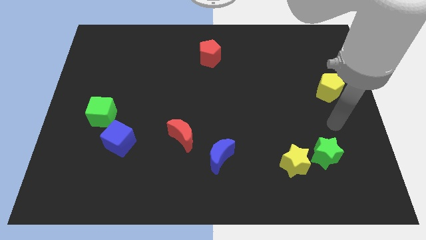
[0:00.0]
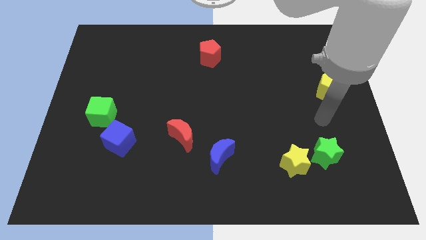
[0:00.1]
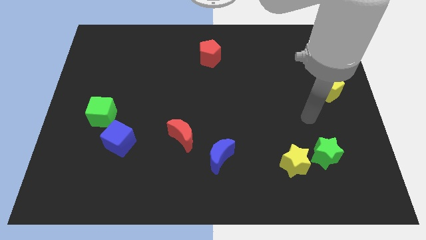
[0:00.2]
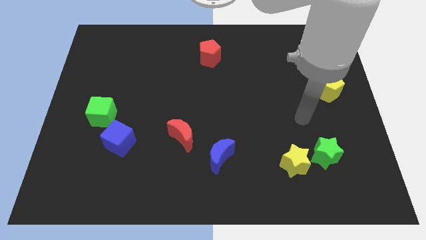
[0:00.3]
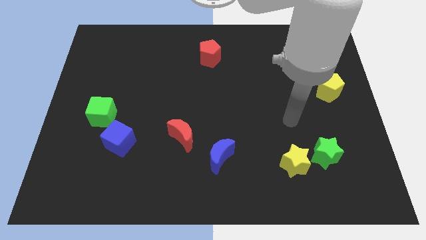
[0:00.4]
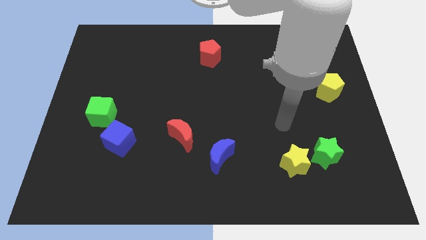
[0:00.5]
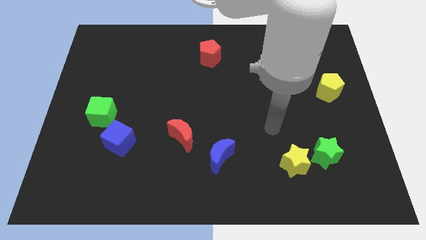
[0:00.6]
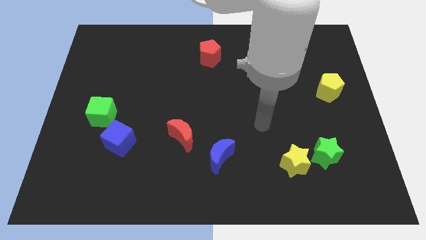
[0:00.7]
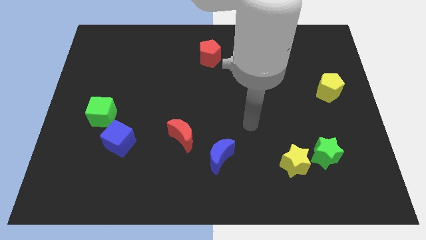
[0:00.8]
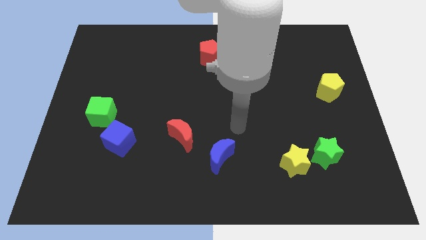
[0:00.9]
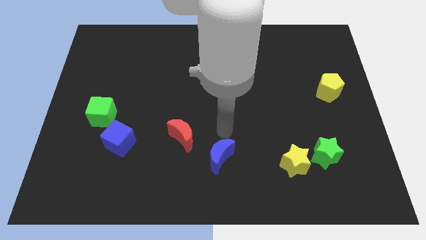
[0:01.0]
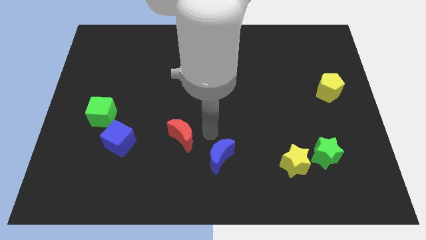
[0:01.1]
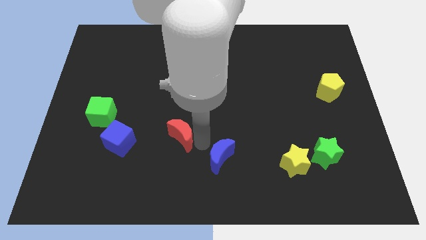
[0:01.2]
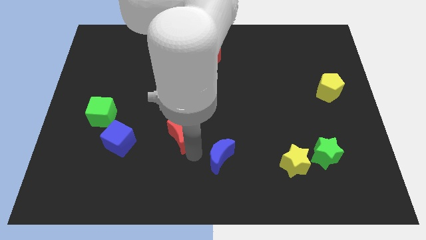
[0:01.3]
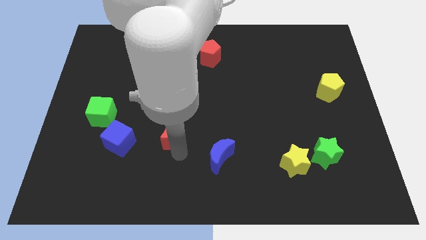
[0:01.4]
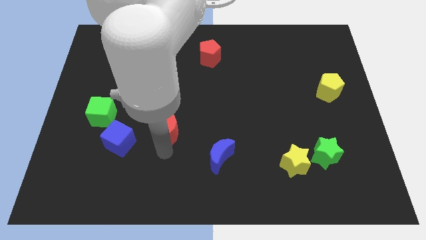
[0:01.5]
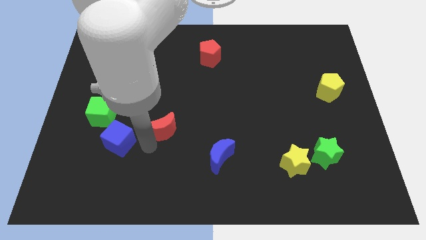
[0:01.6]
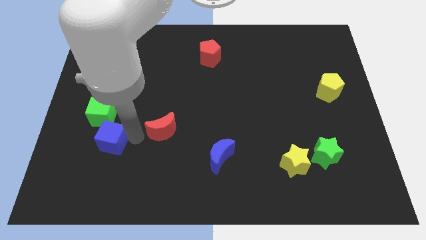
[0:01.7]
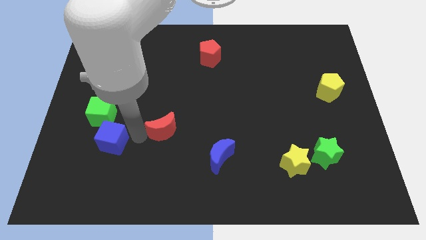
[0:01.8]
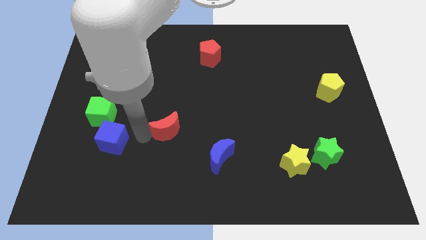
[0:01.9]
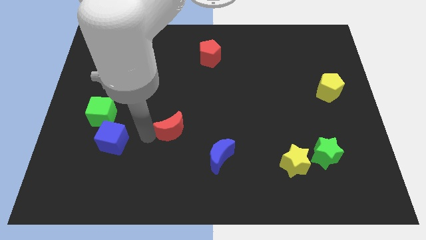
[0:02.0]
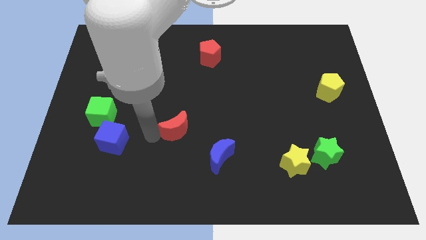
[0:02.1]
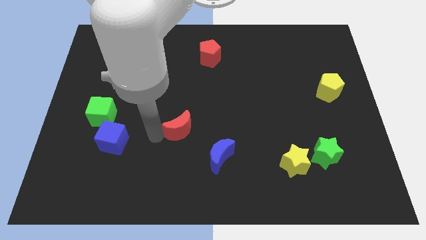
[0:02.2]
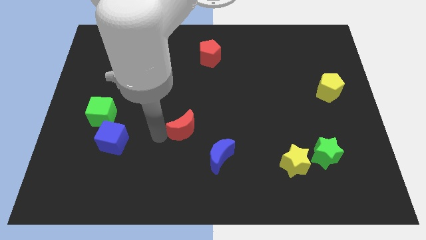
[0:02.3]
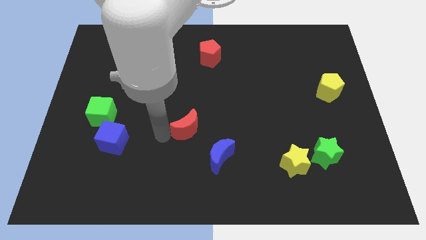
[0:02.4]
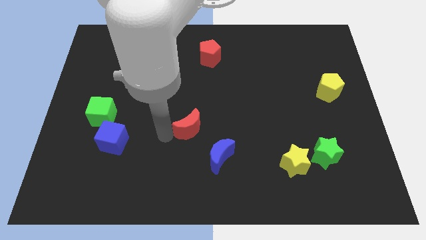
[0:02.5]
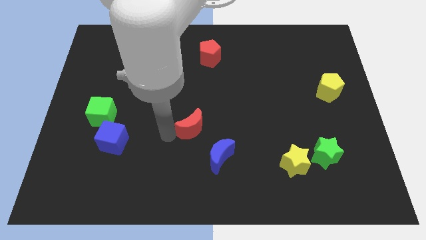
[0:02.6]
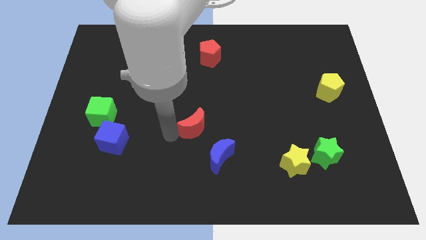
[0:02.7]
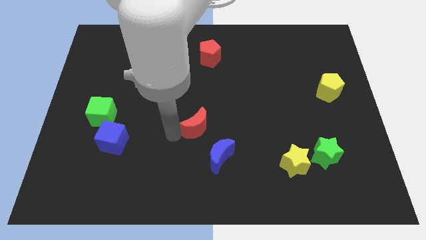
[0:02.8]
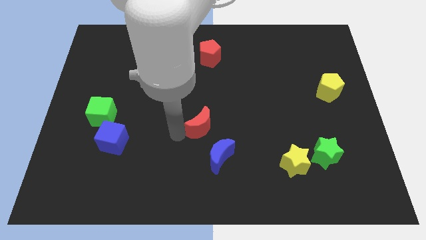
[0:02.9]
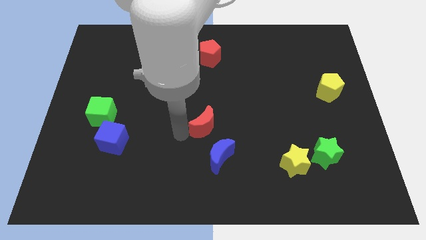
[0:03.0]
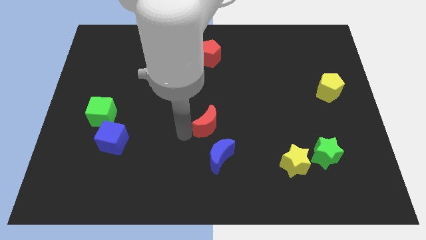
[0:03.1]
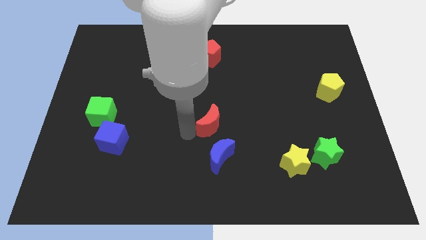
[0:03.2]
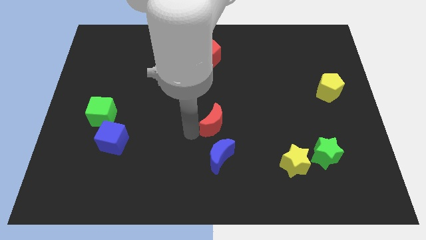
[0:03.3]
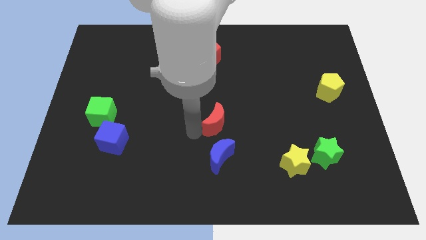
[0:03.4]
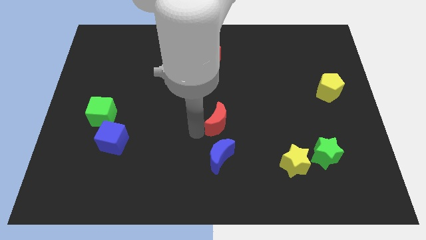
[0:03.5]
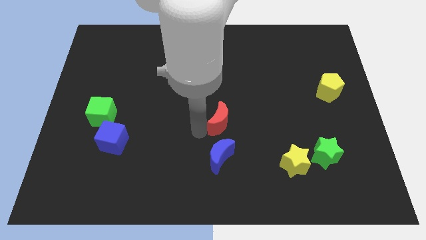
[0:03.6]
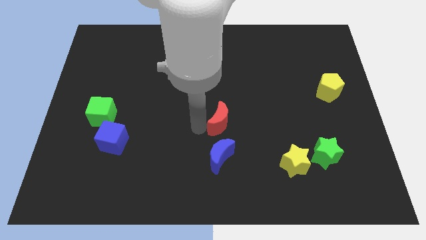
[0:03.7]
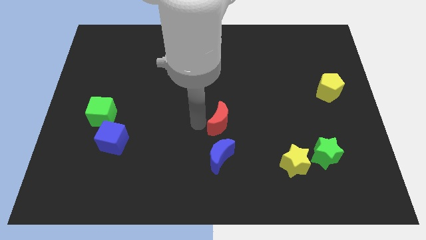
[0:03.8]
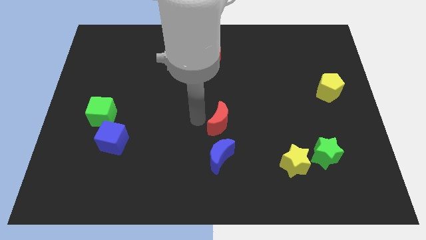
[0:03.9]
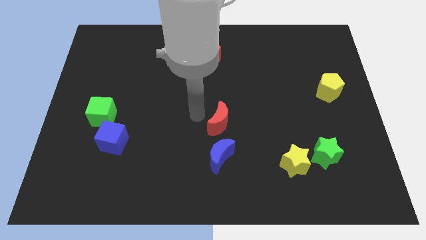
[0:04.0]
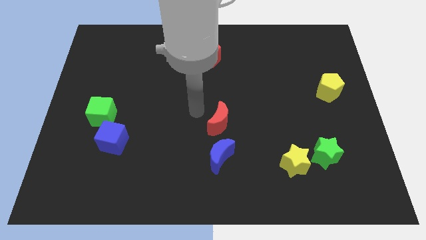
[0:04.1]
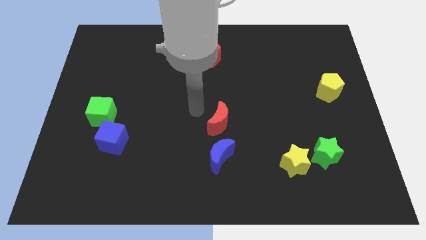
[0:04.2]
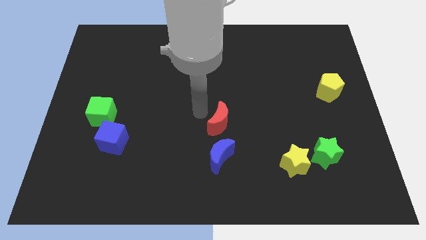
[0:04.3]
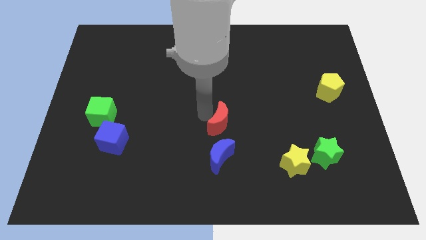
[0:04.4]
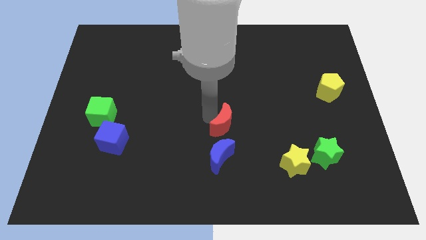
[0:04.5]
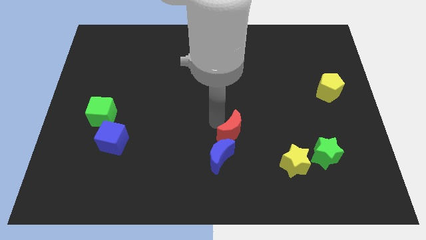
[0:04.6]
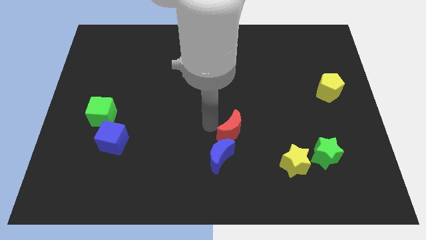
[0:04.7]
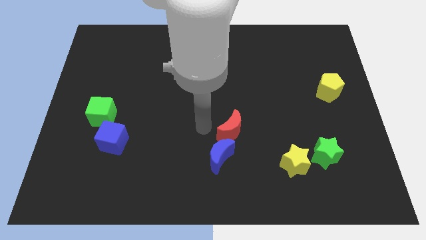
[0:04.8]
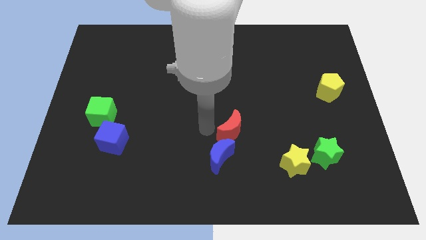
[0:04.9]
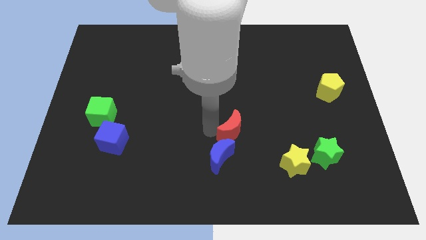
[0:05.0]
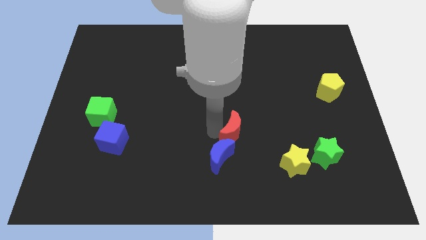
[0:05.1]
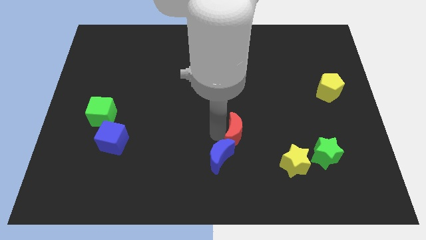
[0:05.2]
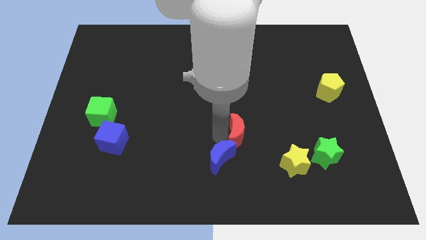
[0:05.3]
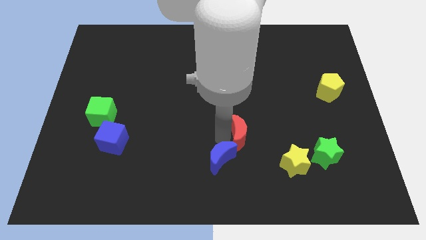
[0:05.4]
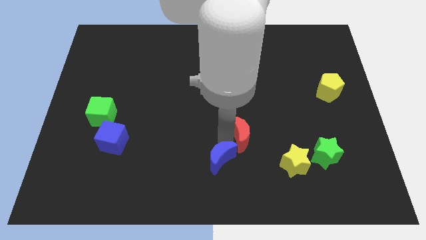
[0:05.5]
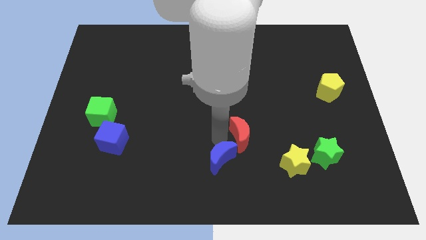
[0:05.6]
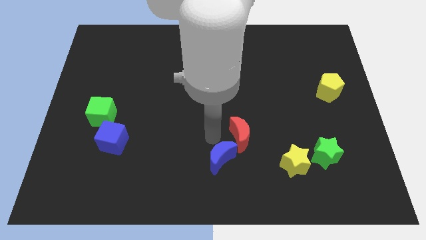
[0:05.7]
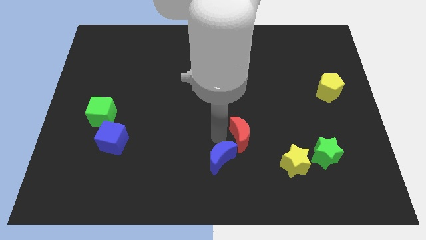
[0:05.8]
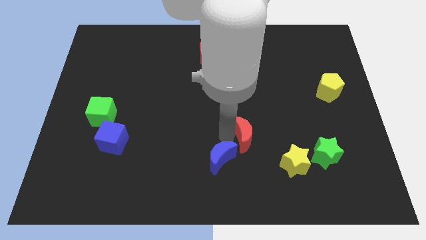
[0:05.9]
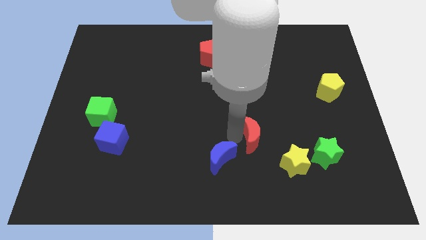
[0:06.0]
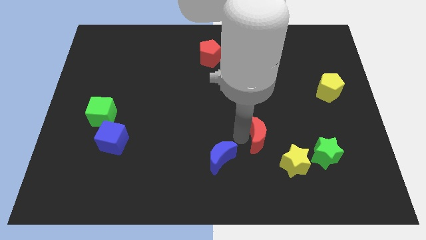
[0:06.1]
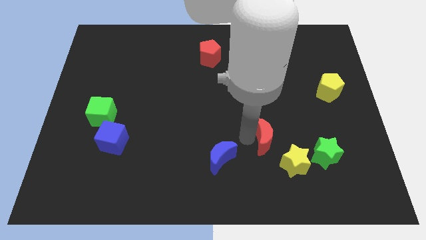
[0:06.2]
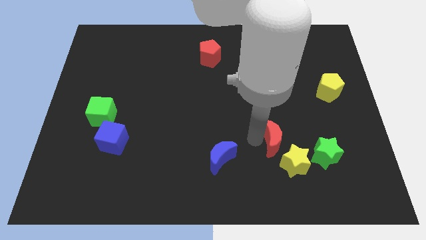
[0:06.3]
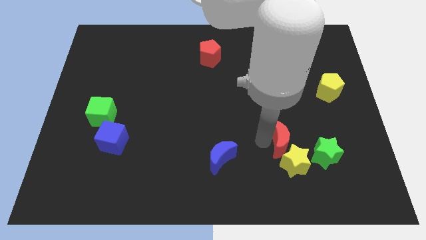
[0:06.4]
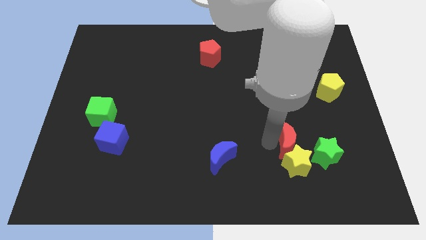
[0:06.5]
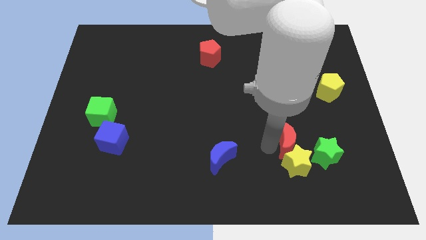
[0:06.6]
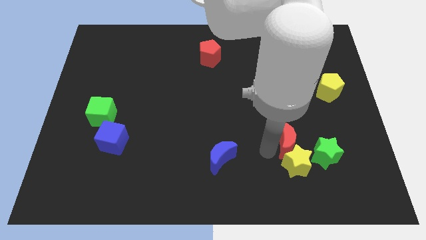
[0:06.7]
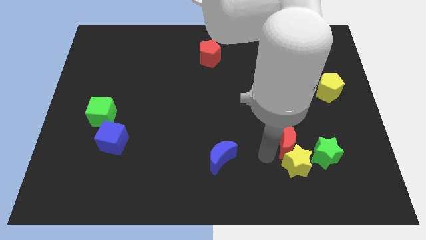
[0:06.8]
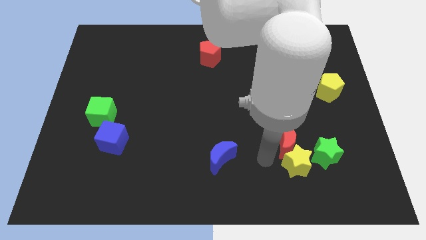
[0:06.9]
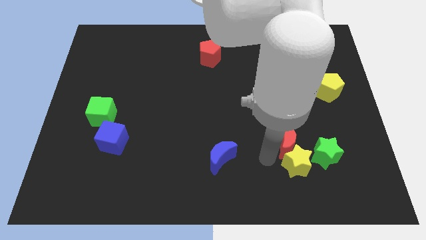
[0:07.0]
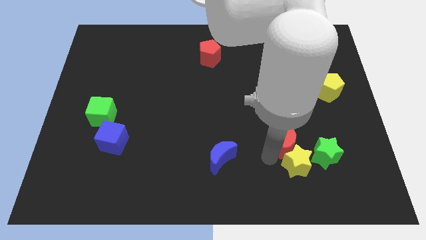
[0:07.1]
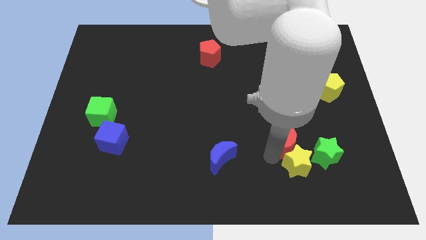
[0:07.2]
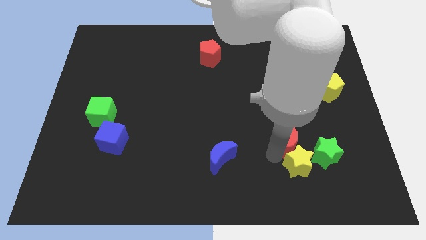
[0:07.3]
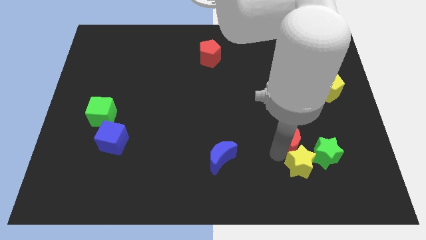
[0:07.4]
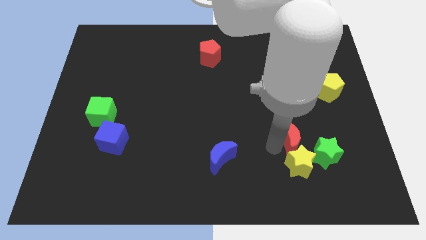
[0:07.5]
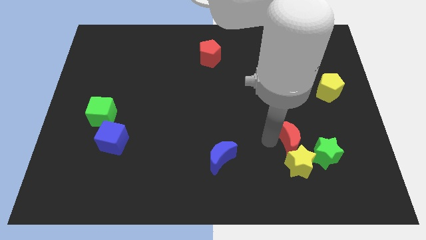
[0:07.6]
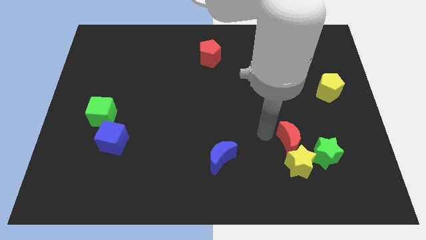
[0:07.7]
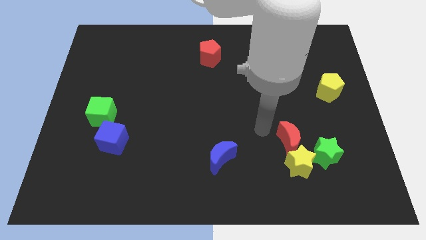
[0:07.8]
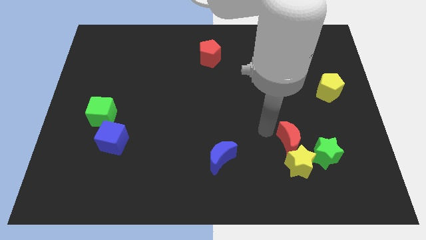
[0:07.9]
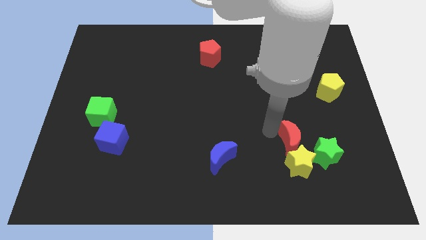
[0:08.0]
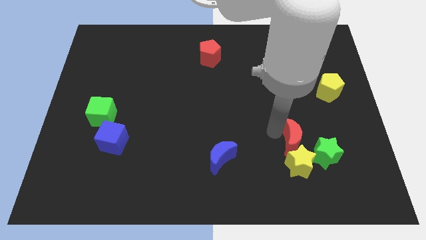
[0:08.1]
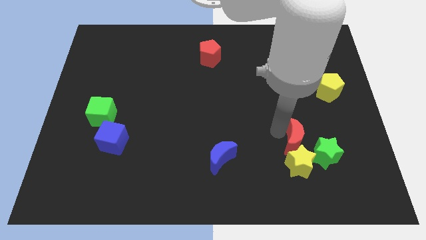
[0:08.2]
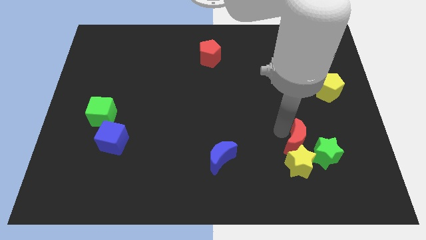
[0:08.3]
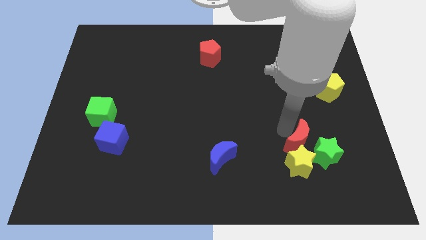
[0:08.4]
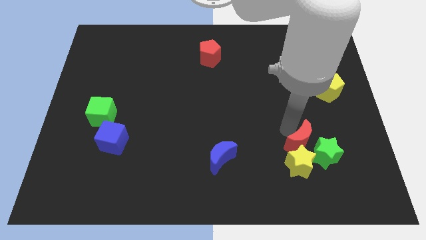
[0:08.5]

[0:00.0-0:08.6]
put the red moon next to the green star
